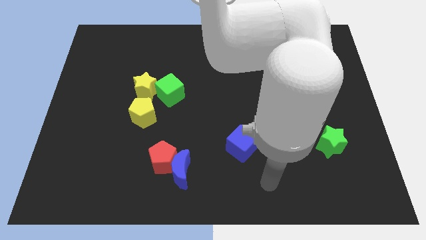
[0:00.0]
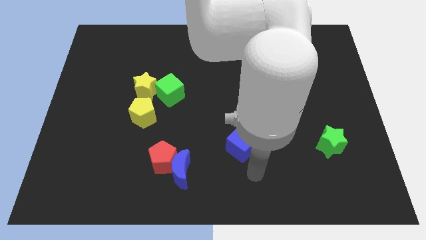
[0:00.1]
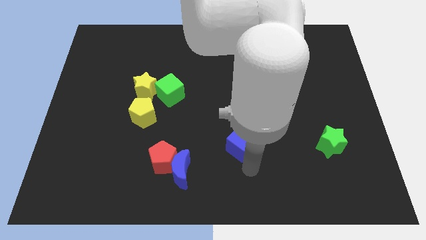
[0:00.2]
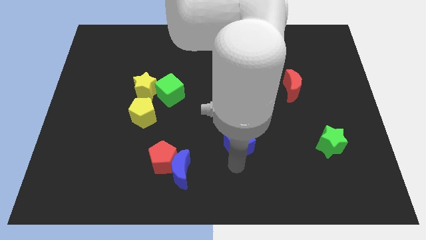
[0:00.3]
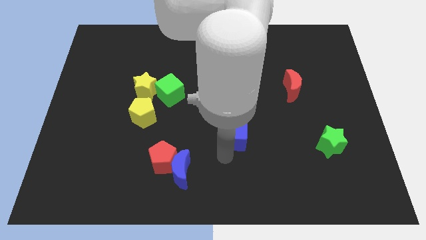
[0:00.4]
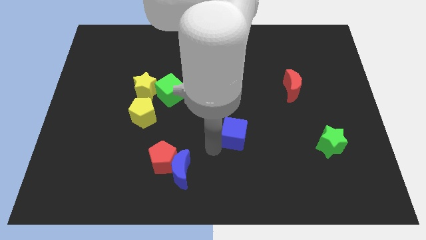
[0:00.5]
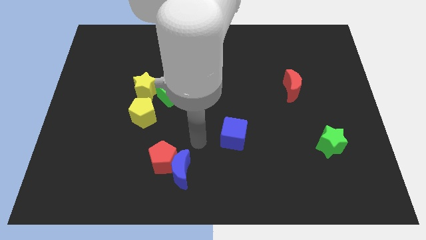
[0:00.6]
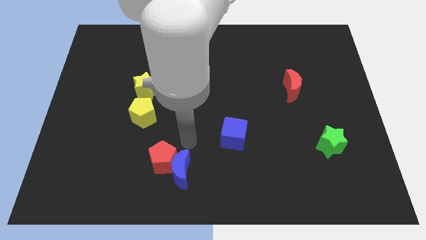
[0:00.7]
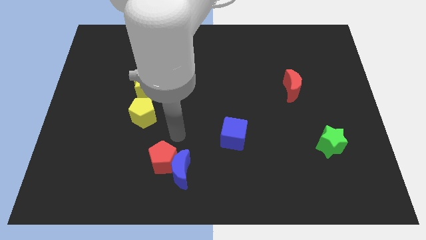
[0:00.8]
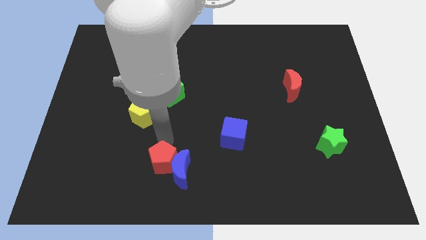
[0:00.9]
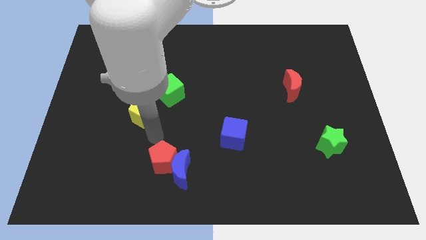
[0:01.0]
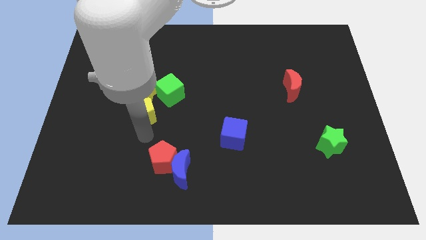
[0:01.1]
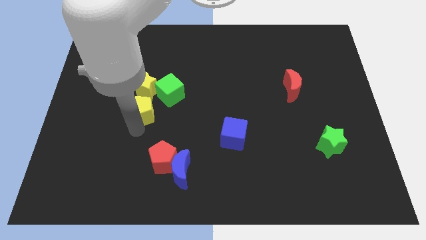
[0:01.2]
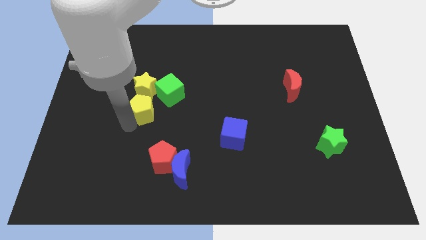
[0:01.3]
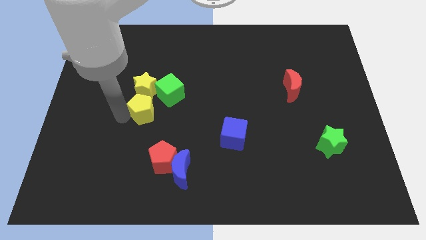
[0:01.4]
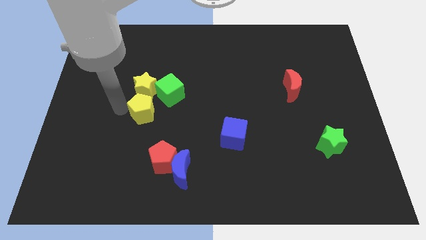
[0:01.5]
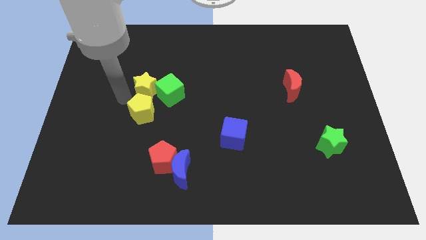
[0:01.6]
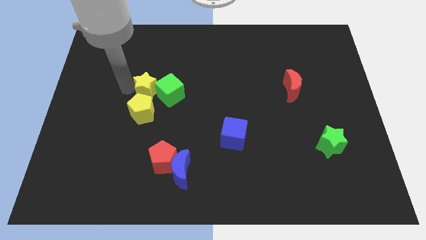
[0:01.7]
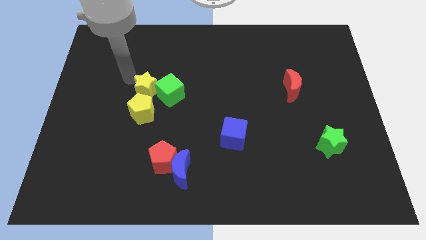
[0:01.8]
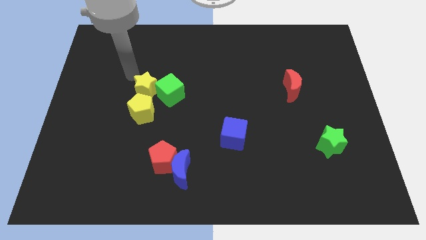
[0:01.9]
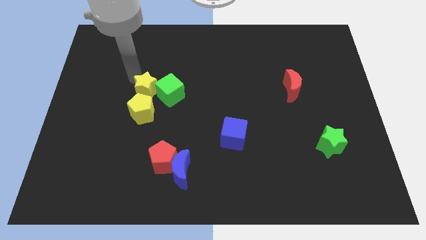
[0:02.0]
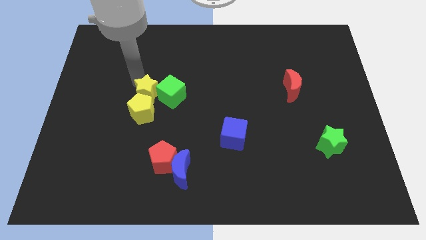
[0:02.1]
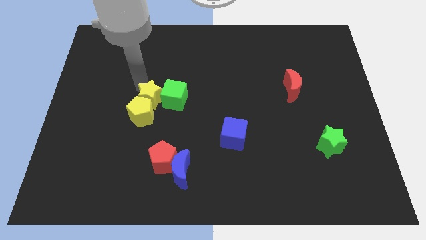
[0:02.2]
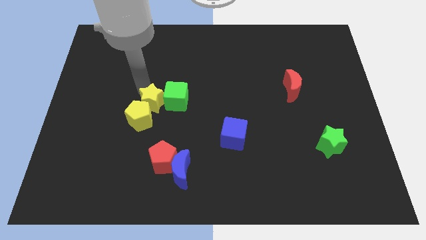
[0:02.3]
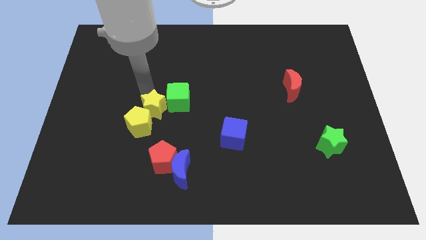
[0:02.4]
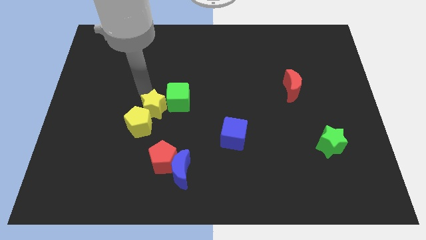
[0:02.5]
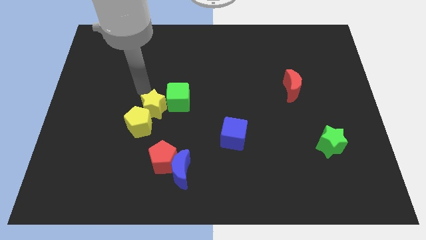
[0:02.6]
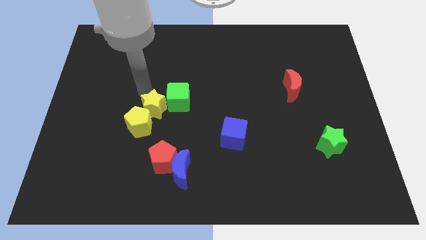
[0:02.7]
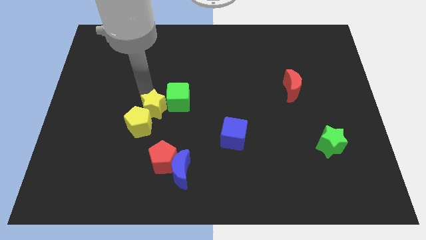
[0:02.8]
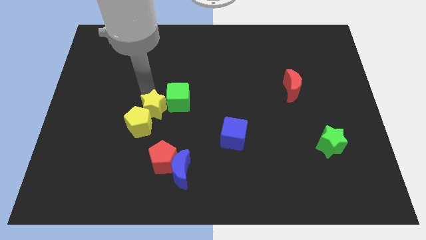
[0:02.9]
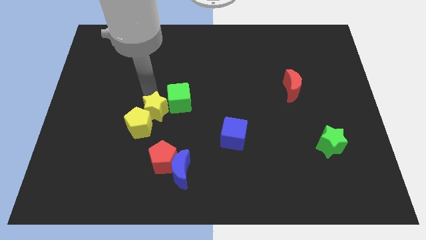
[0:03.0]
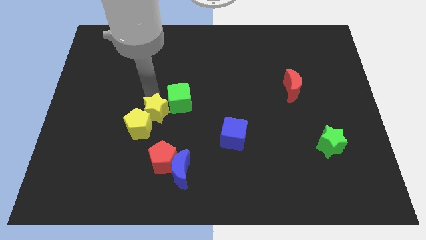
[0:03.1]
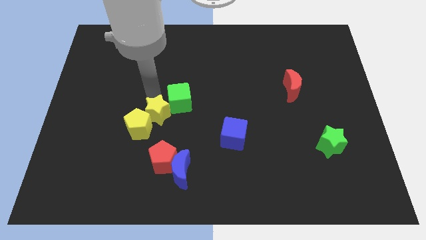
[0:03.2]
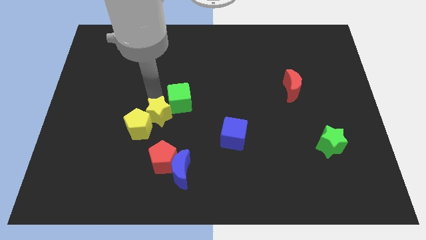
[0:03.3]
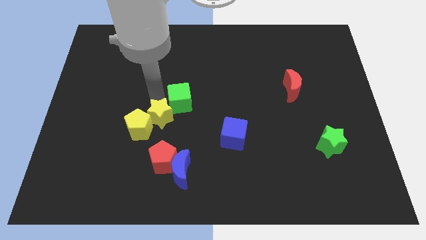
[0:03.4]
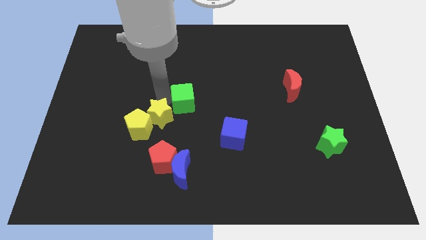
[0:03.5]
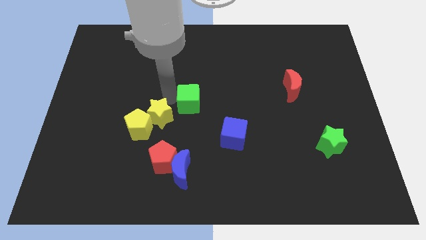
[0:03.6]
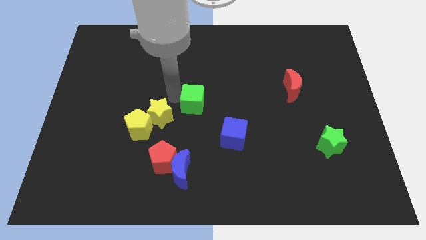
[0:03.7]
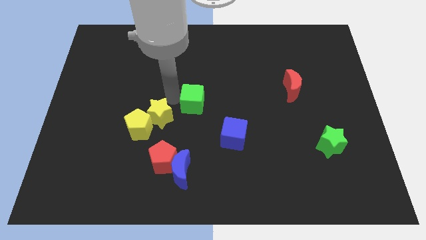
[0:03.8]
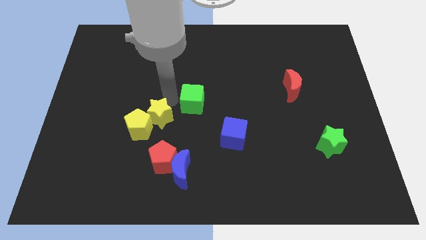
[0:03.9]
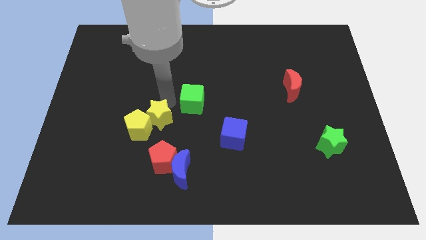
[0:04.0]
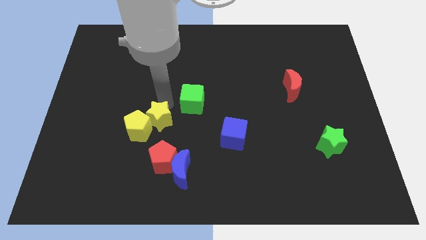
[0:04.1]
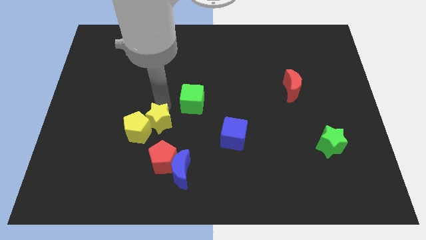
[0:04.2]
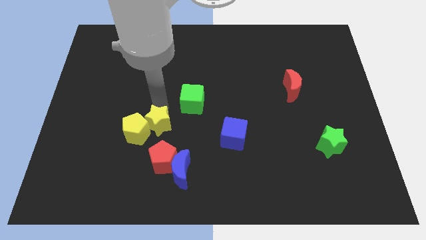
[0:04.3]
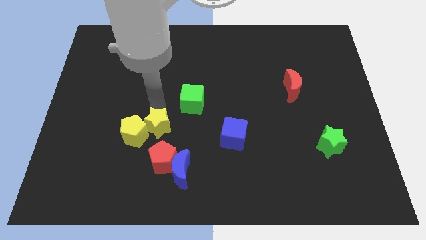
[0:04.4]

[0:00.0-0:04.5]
push the yellow star to the top left of the red pentagon

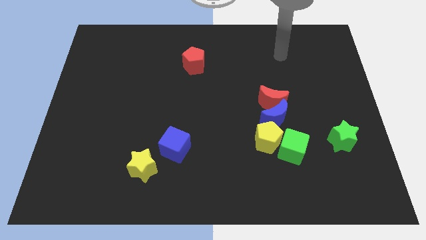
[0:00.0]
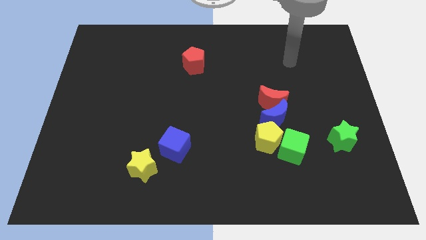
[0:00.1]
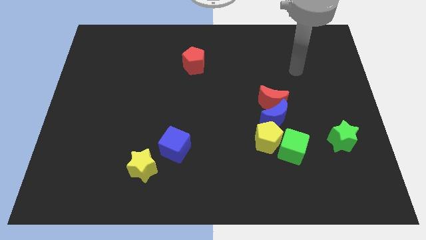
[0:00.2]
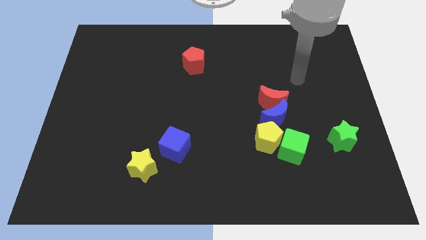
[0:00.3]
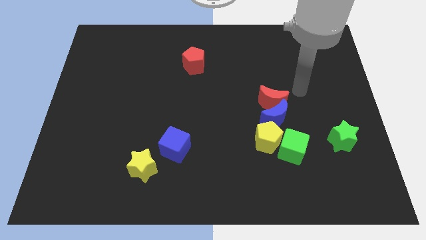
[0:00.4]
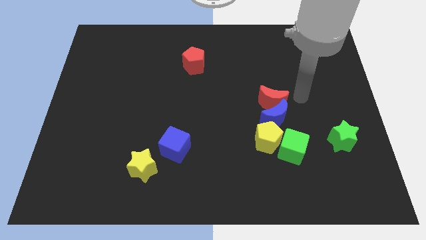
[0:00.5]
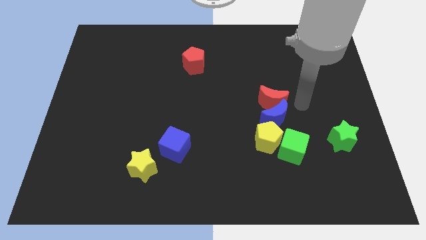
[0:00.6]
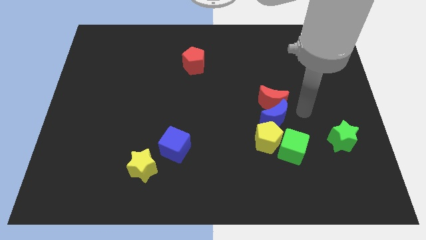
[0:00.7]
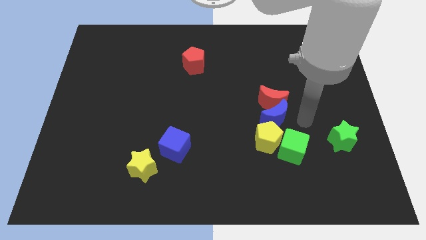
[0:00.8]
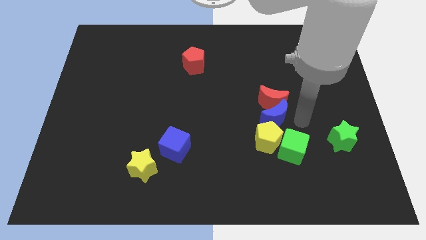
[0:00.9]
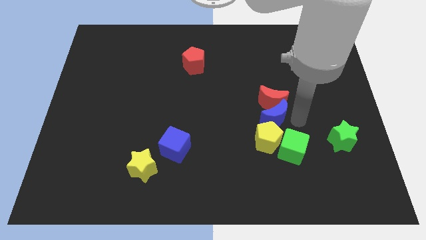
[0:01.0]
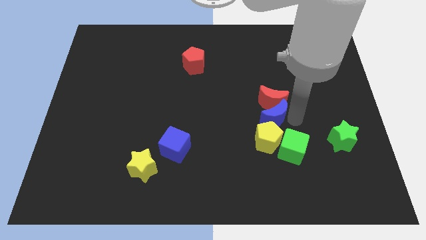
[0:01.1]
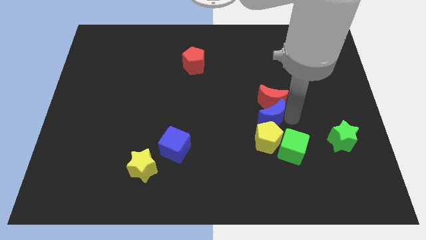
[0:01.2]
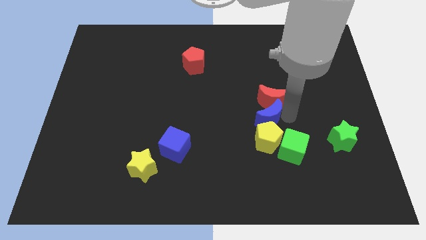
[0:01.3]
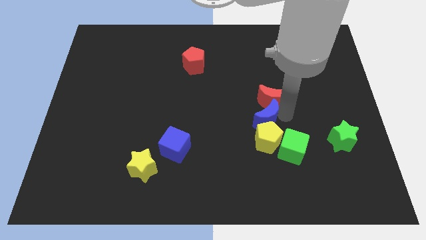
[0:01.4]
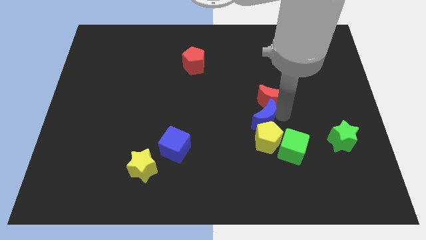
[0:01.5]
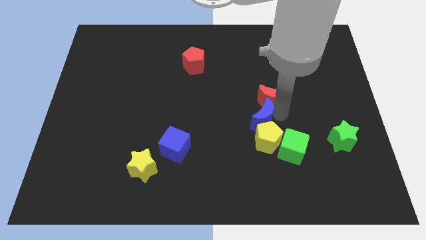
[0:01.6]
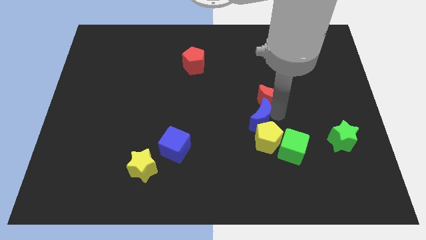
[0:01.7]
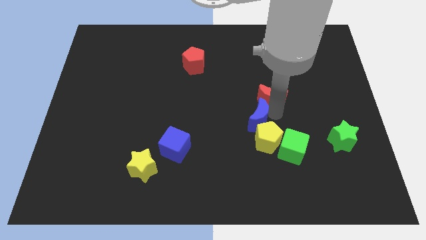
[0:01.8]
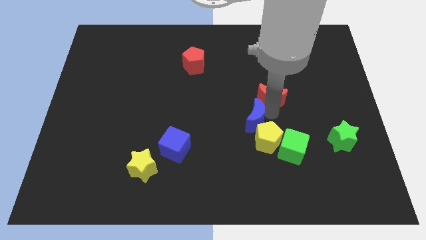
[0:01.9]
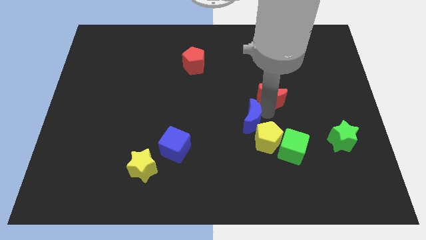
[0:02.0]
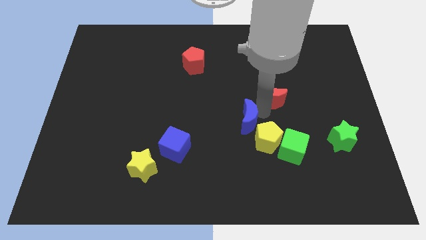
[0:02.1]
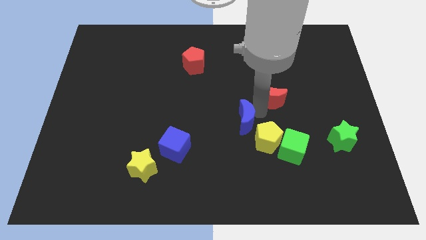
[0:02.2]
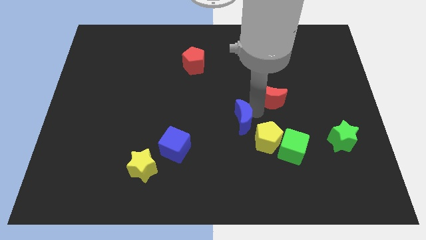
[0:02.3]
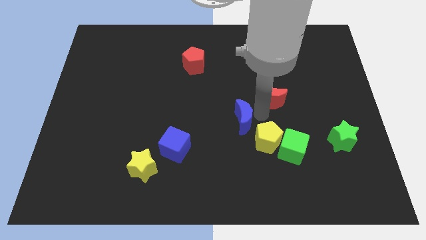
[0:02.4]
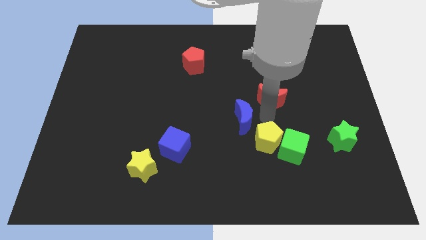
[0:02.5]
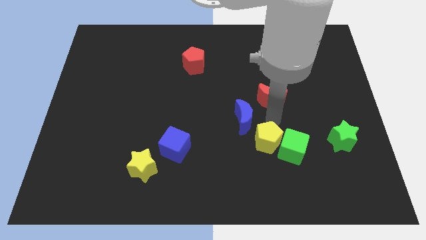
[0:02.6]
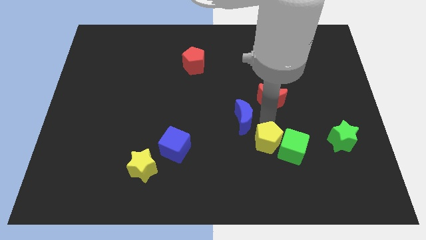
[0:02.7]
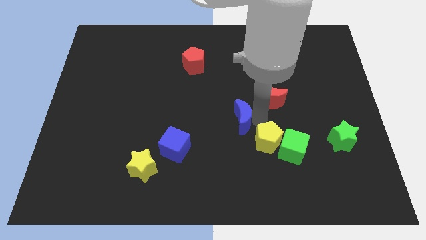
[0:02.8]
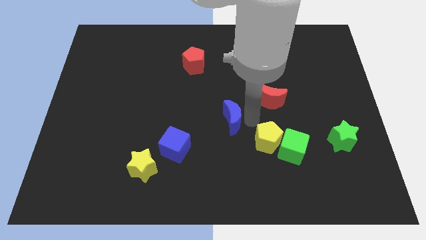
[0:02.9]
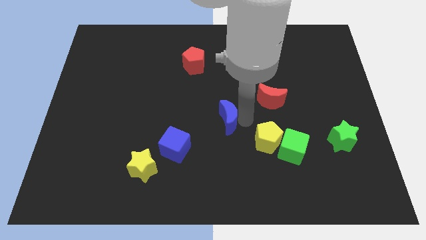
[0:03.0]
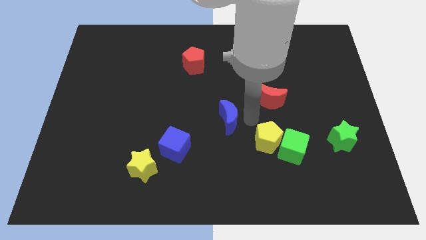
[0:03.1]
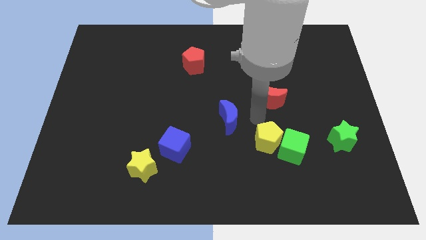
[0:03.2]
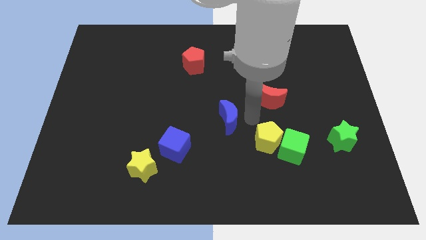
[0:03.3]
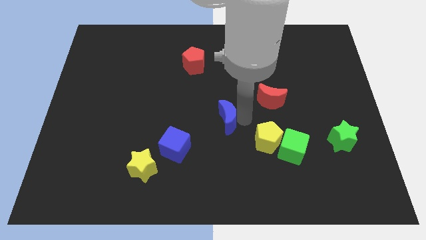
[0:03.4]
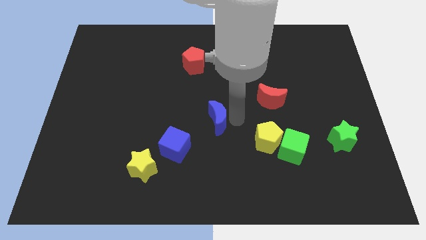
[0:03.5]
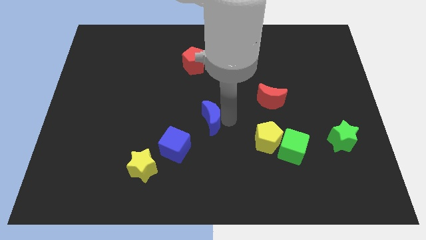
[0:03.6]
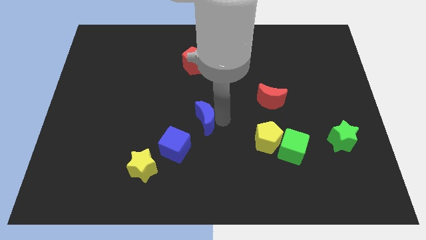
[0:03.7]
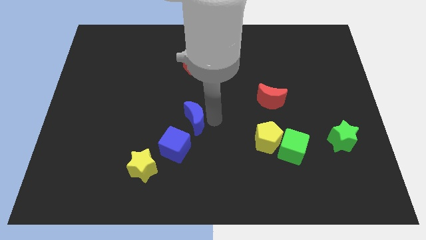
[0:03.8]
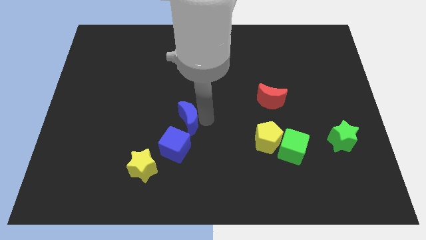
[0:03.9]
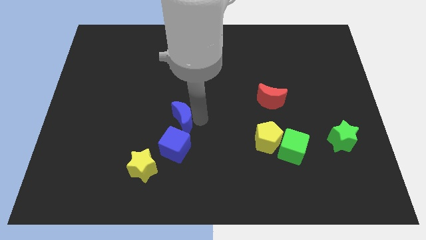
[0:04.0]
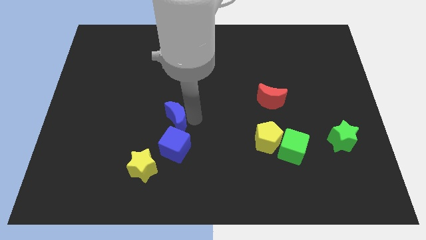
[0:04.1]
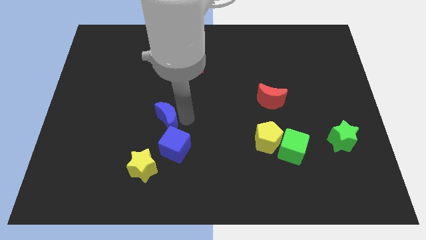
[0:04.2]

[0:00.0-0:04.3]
slide the blue moon to the top of the yellow star
